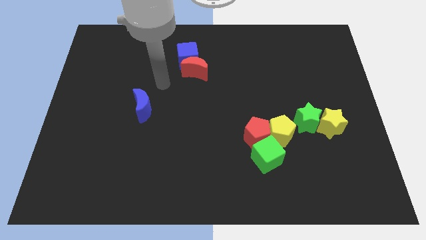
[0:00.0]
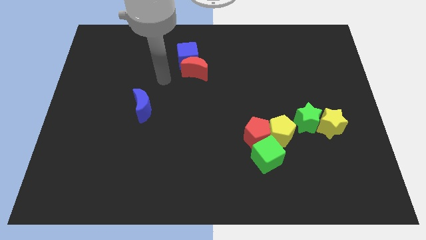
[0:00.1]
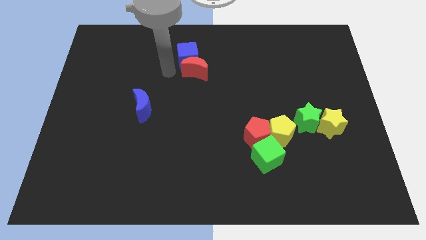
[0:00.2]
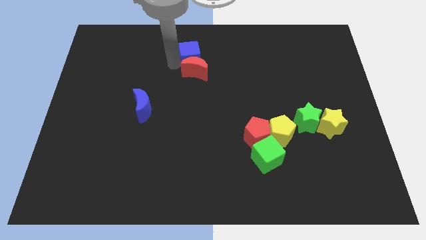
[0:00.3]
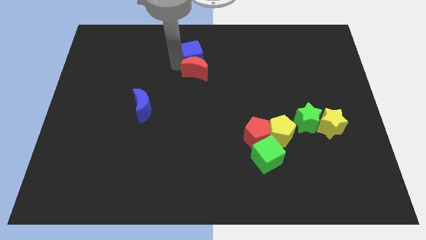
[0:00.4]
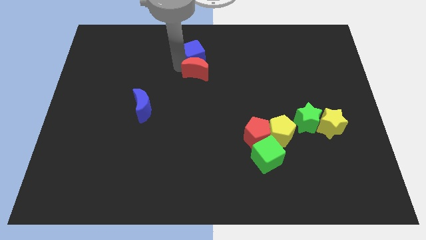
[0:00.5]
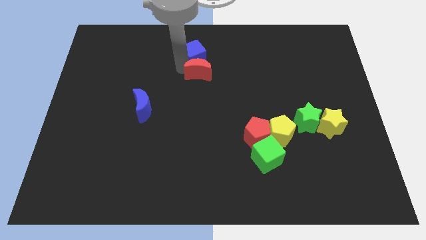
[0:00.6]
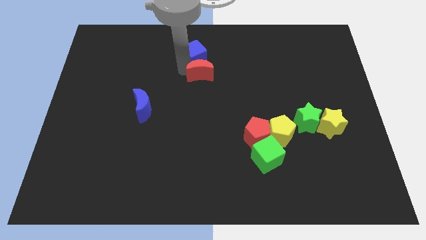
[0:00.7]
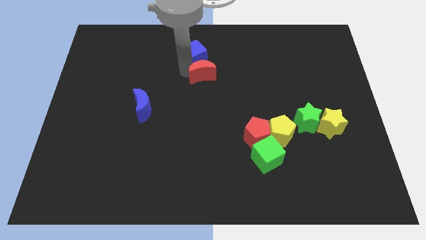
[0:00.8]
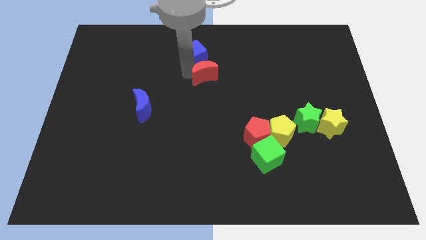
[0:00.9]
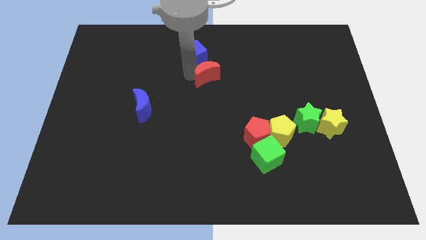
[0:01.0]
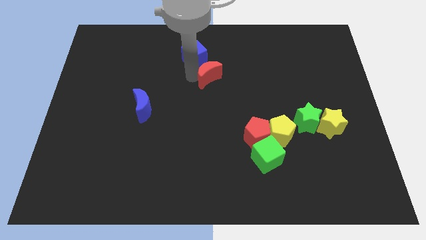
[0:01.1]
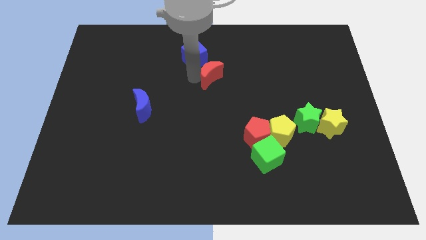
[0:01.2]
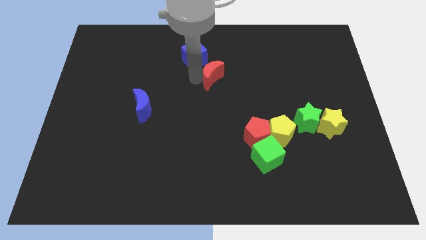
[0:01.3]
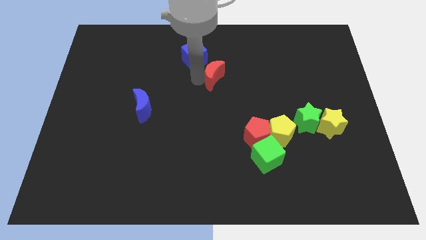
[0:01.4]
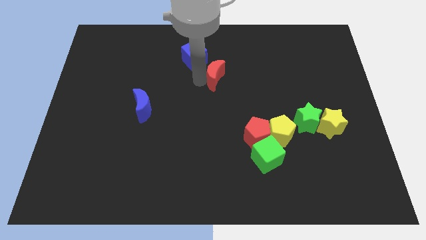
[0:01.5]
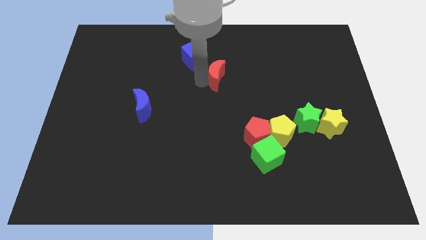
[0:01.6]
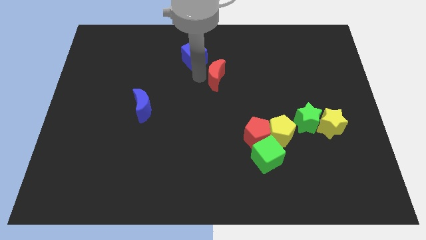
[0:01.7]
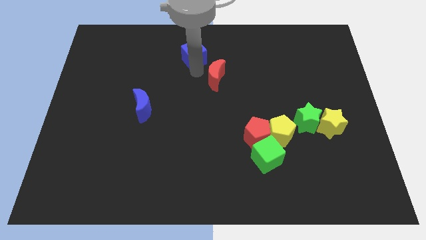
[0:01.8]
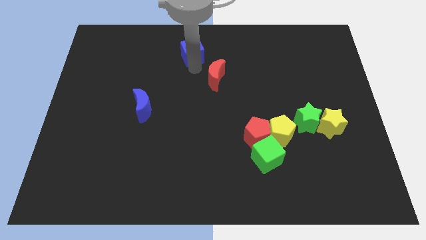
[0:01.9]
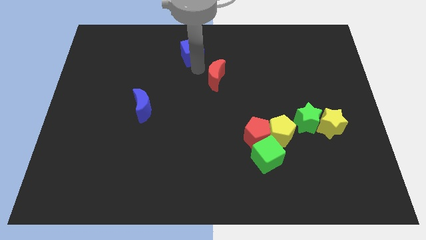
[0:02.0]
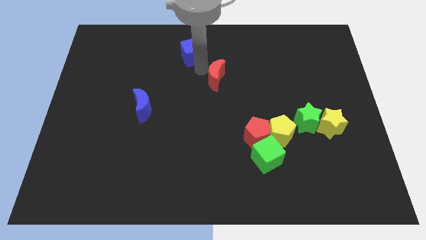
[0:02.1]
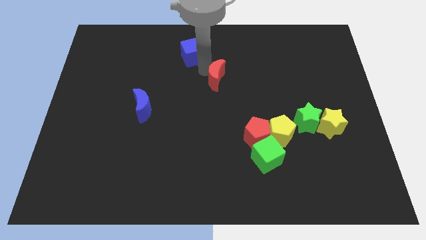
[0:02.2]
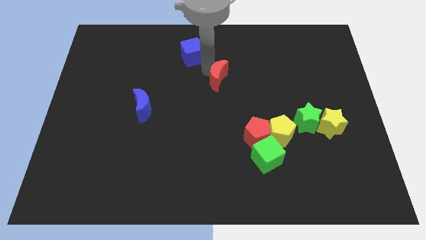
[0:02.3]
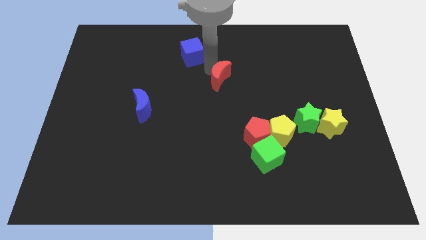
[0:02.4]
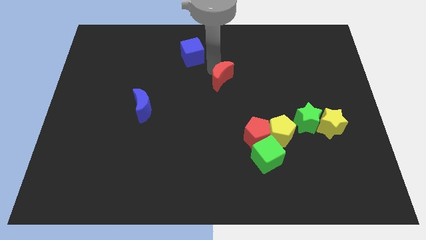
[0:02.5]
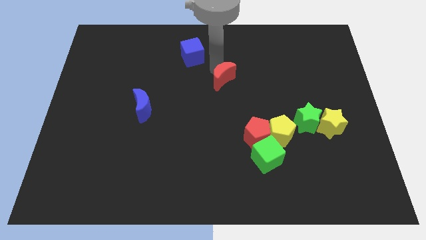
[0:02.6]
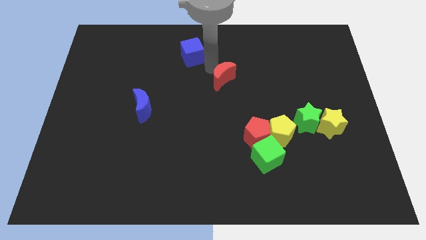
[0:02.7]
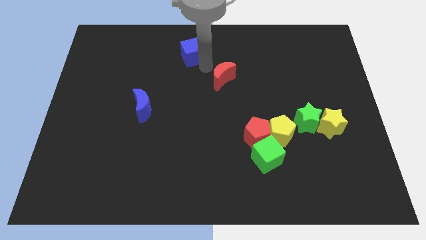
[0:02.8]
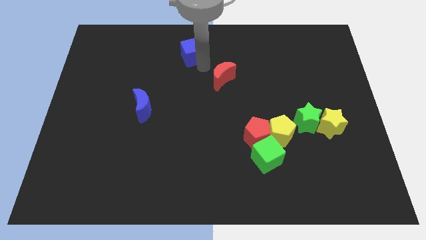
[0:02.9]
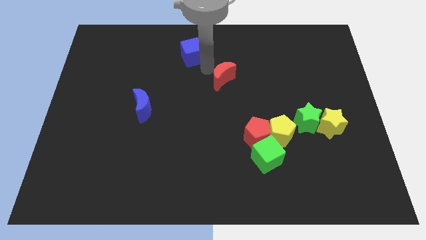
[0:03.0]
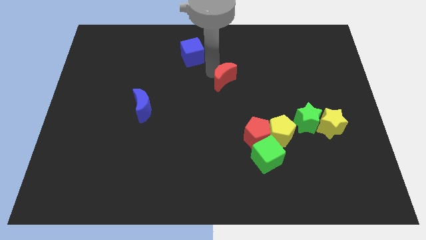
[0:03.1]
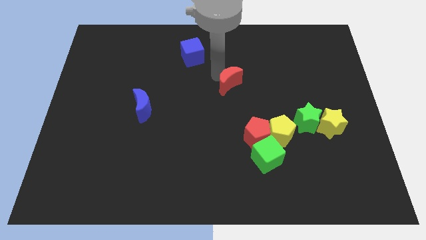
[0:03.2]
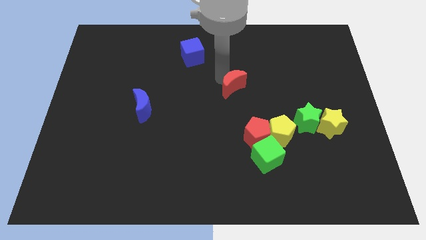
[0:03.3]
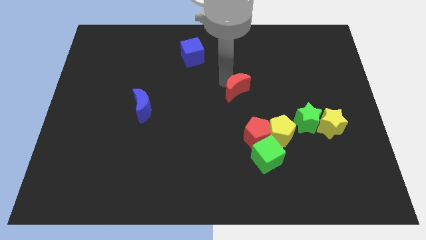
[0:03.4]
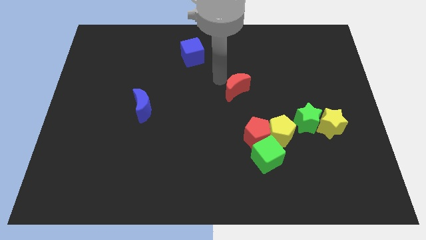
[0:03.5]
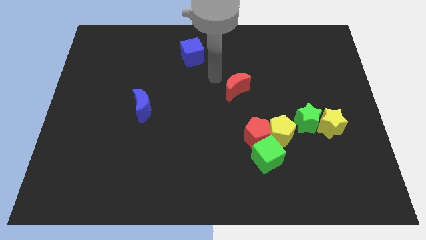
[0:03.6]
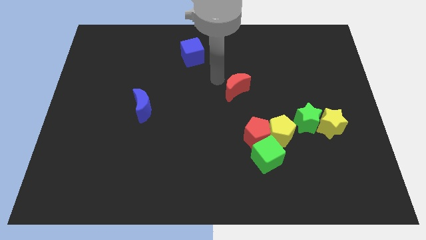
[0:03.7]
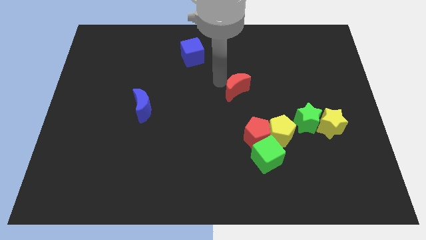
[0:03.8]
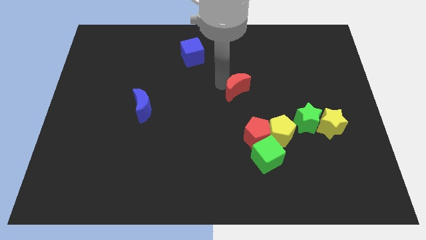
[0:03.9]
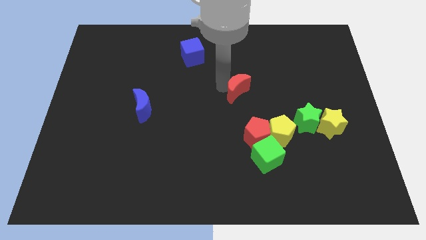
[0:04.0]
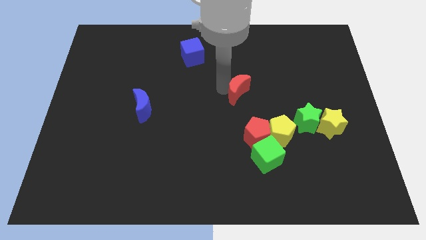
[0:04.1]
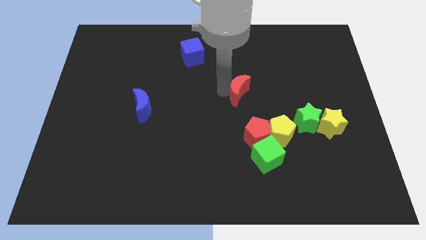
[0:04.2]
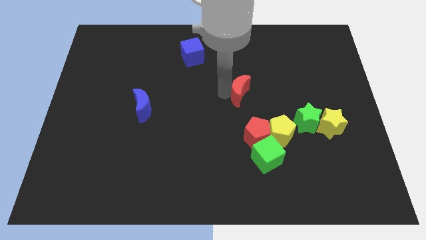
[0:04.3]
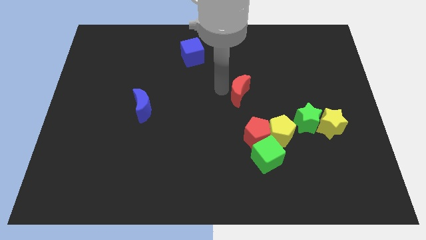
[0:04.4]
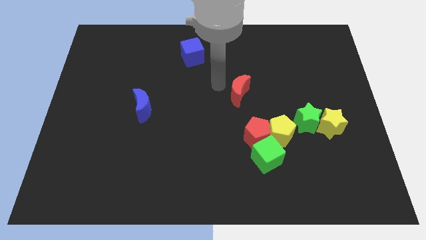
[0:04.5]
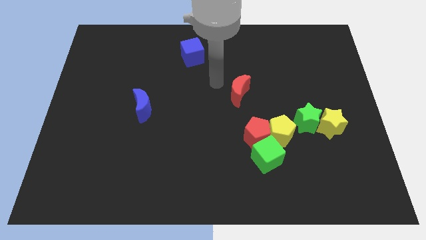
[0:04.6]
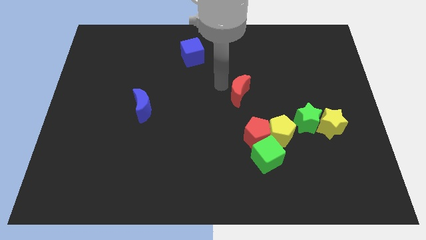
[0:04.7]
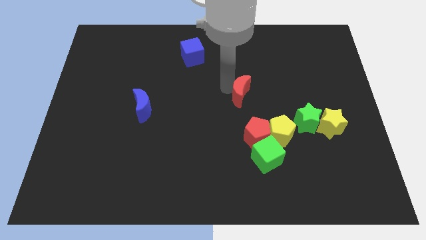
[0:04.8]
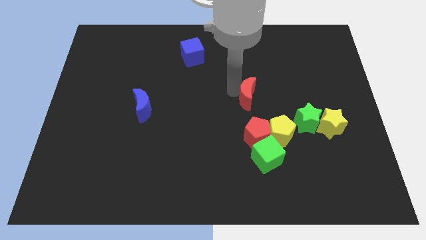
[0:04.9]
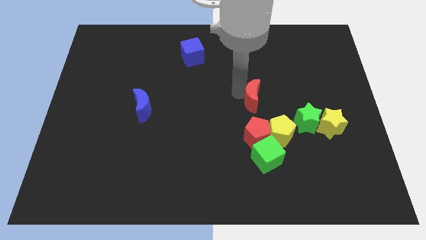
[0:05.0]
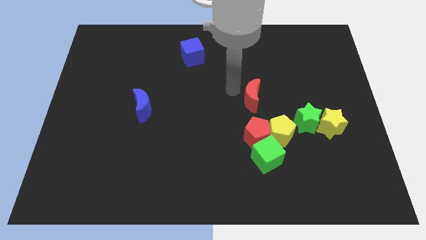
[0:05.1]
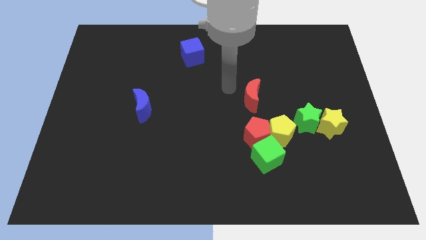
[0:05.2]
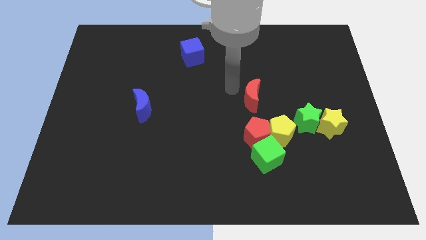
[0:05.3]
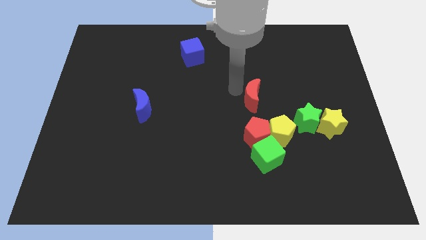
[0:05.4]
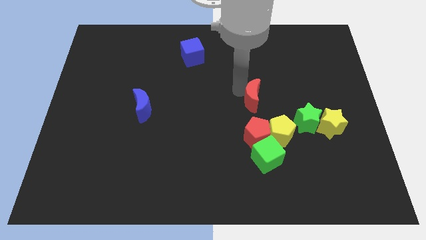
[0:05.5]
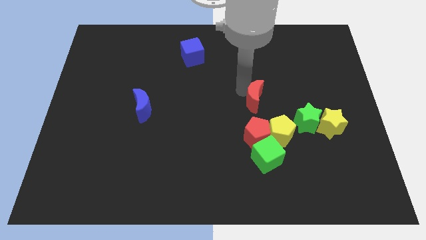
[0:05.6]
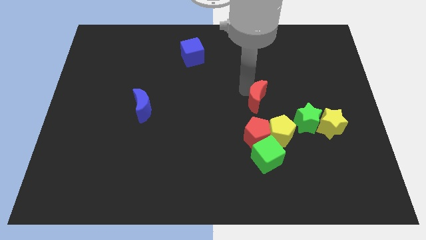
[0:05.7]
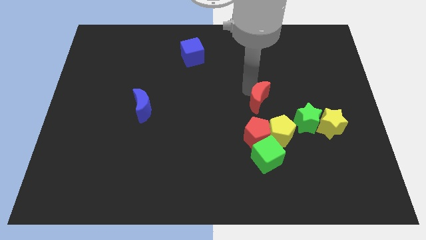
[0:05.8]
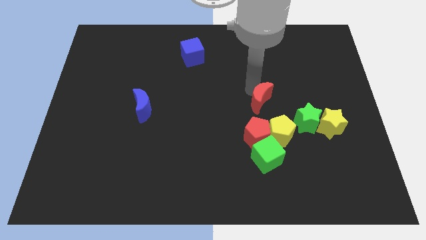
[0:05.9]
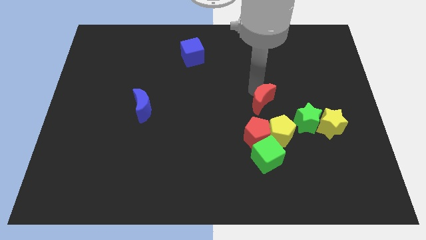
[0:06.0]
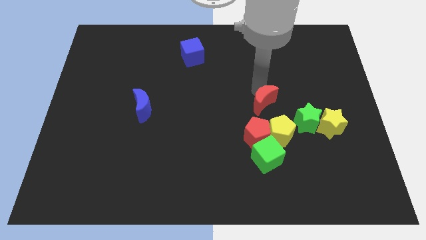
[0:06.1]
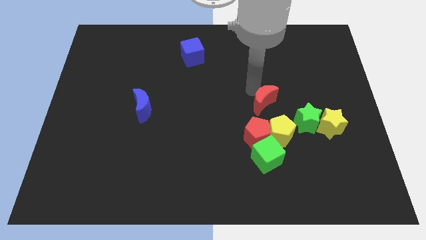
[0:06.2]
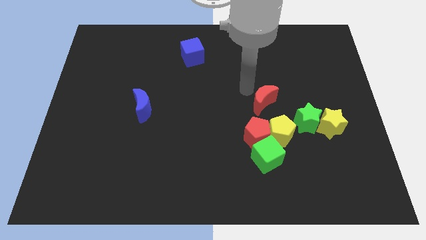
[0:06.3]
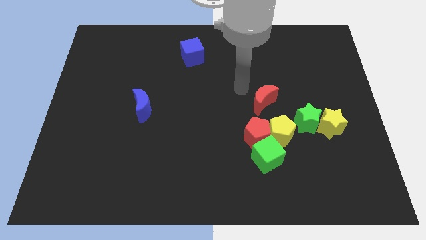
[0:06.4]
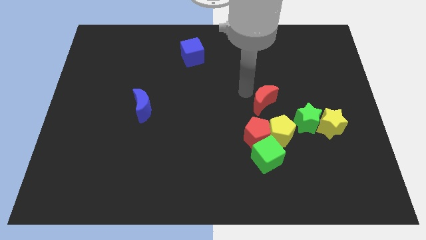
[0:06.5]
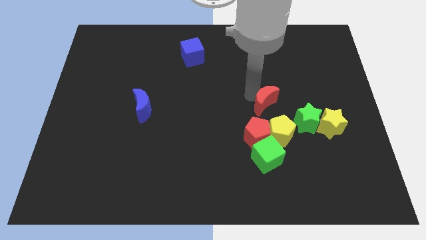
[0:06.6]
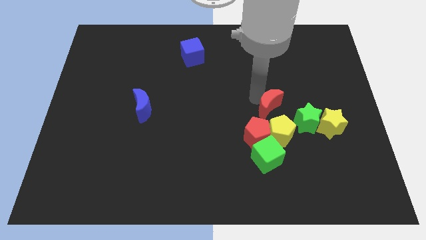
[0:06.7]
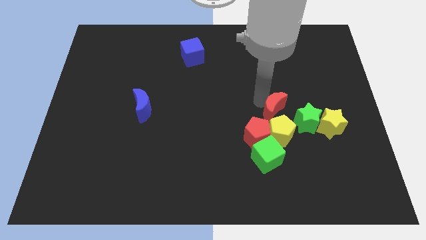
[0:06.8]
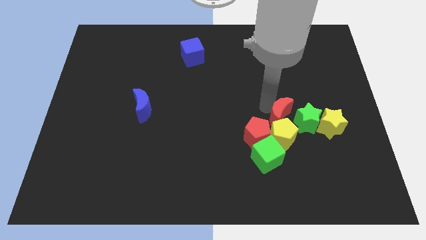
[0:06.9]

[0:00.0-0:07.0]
slide the red moon towards the green star
